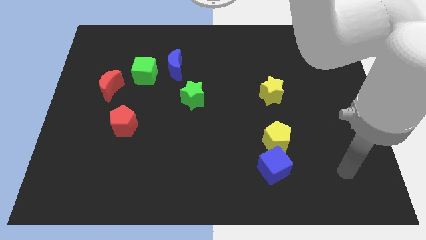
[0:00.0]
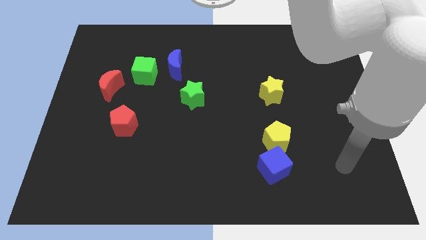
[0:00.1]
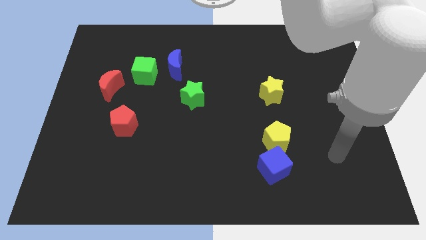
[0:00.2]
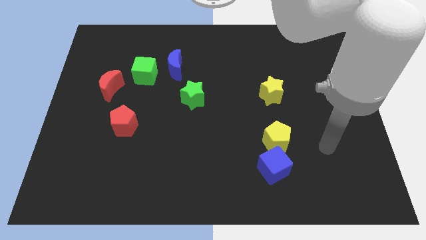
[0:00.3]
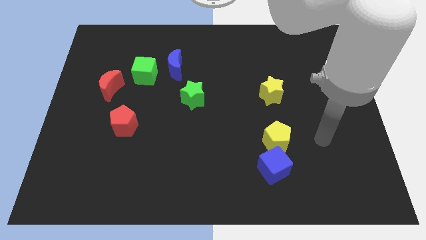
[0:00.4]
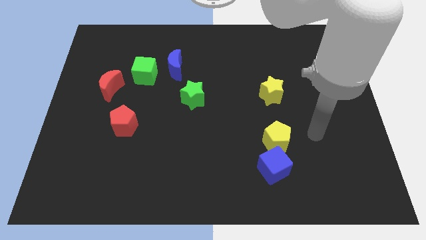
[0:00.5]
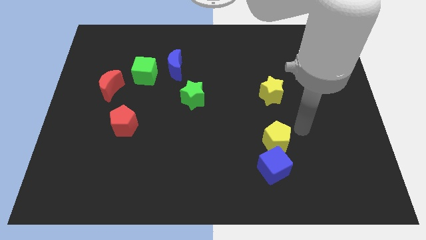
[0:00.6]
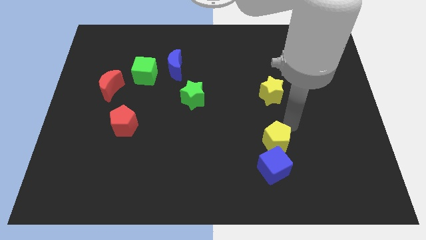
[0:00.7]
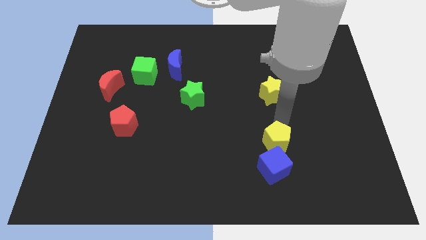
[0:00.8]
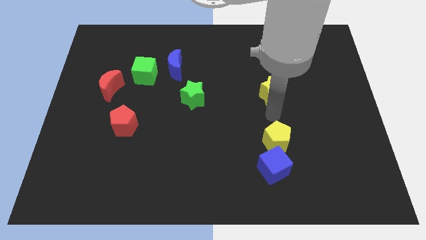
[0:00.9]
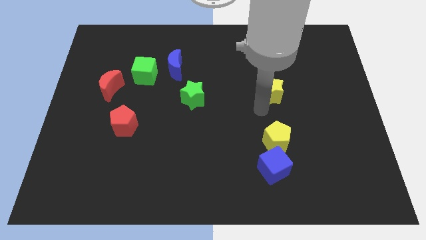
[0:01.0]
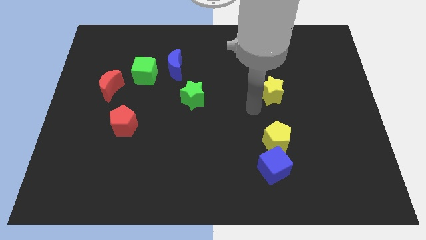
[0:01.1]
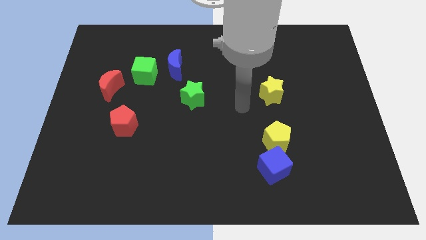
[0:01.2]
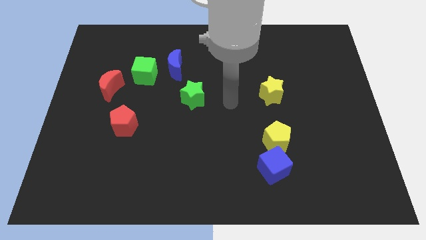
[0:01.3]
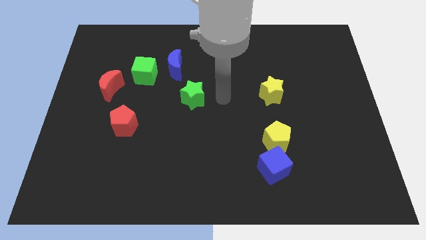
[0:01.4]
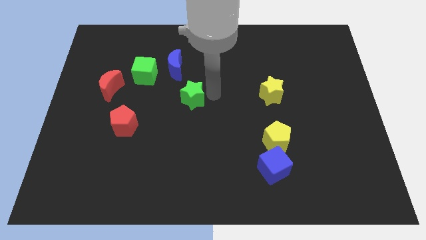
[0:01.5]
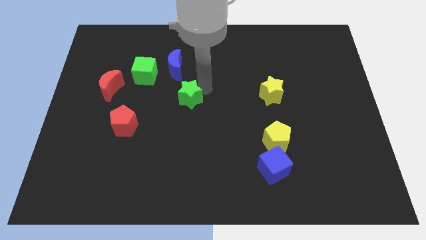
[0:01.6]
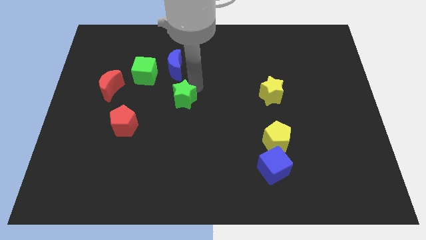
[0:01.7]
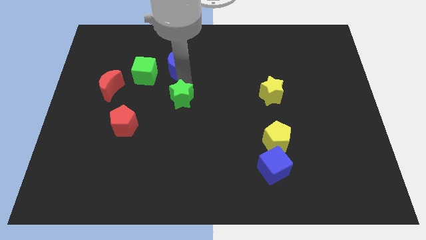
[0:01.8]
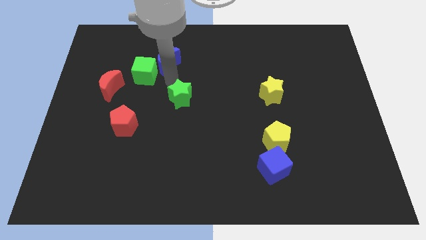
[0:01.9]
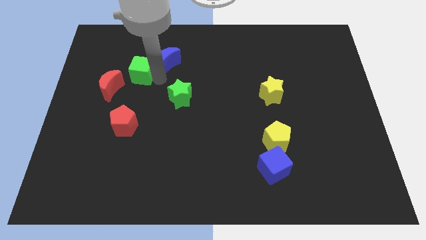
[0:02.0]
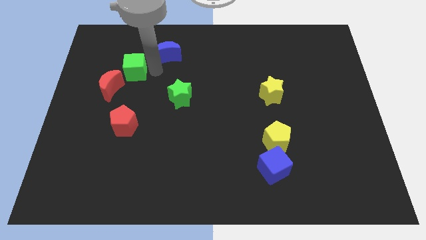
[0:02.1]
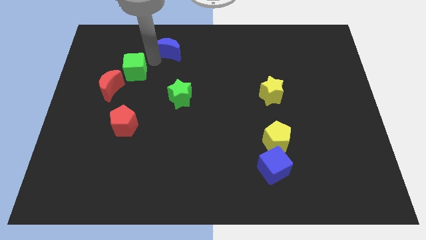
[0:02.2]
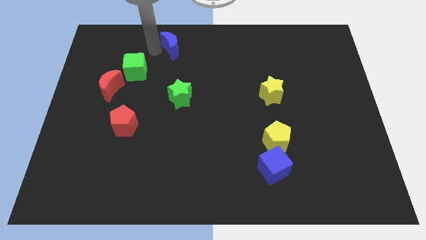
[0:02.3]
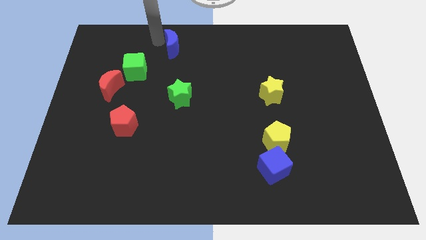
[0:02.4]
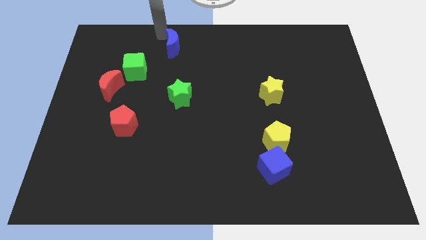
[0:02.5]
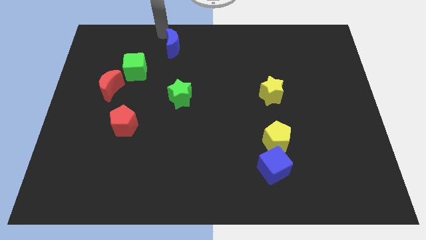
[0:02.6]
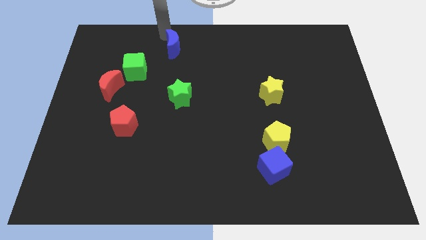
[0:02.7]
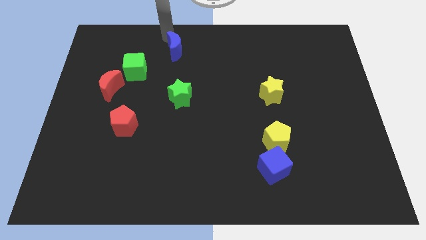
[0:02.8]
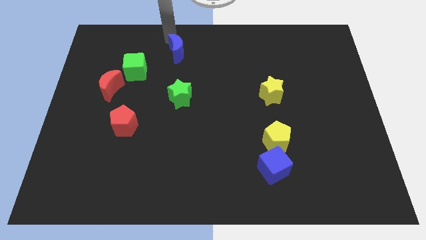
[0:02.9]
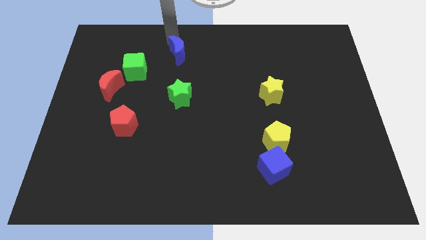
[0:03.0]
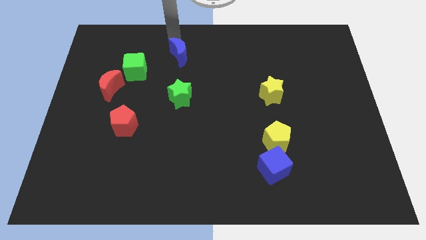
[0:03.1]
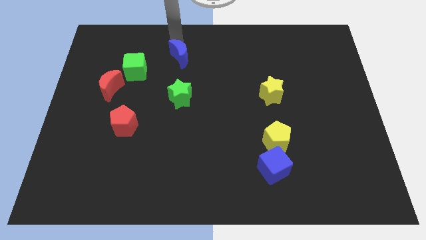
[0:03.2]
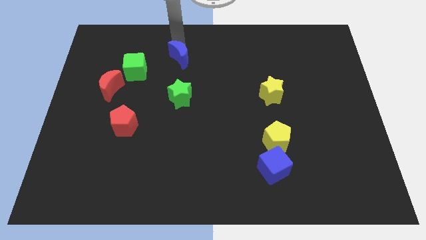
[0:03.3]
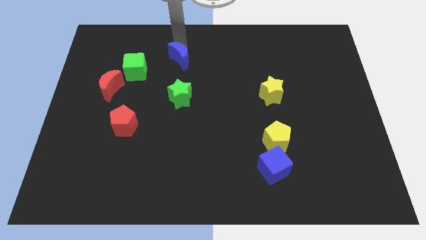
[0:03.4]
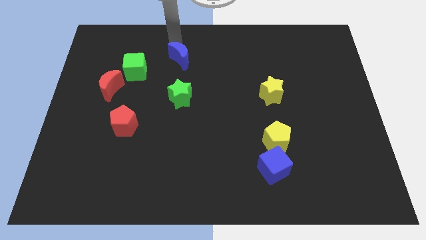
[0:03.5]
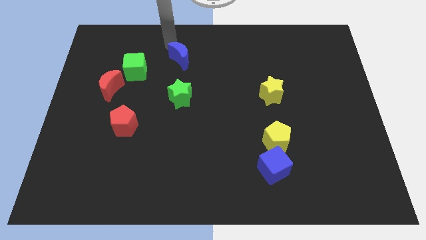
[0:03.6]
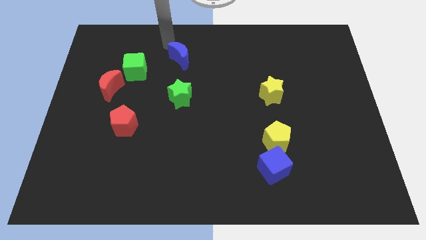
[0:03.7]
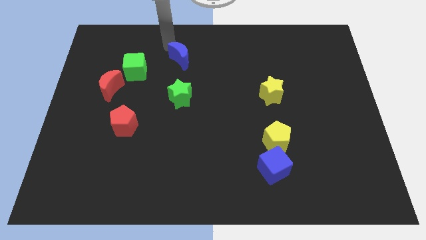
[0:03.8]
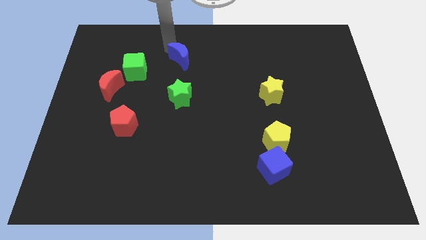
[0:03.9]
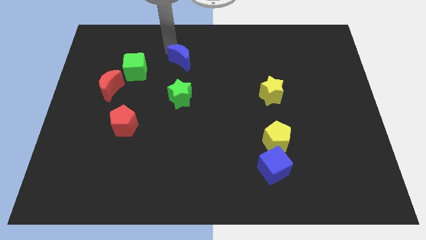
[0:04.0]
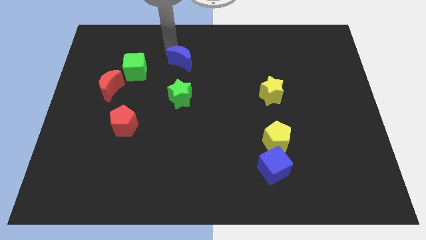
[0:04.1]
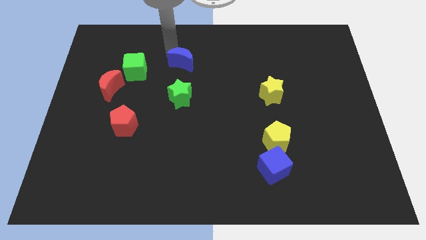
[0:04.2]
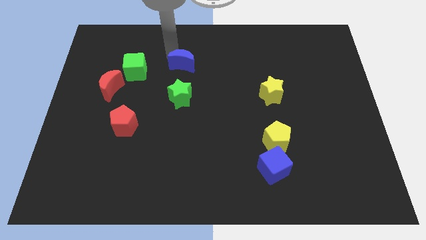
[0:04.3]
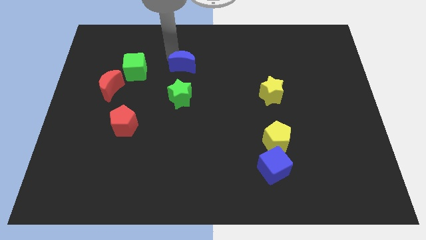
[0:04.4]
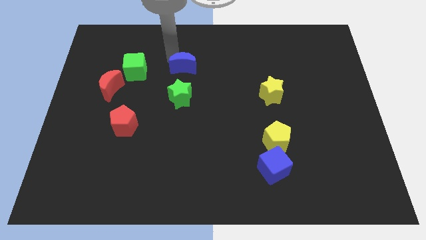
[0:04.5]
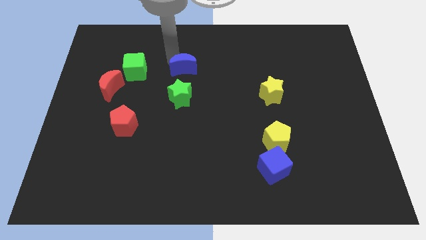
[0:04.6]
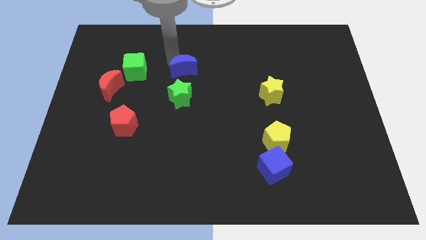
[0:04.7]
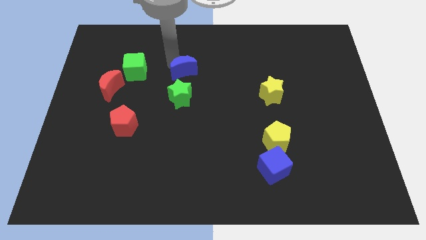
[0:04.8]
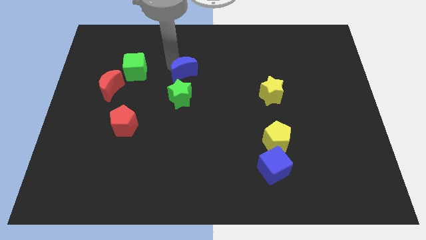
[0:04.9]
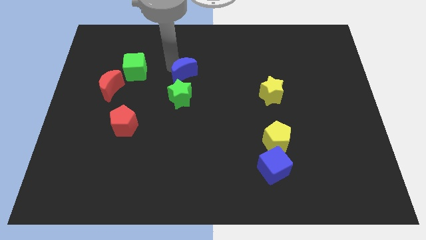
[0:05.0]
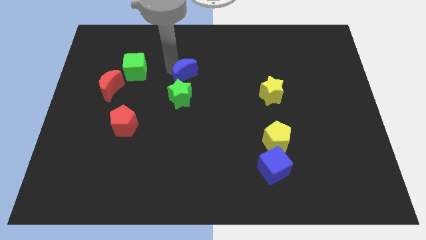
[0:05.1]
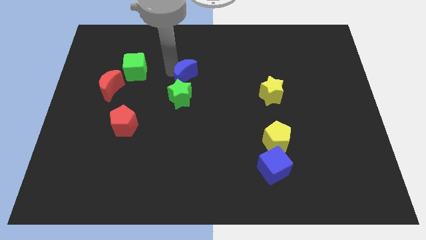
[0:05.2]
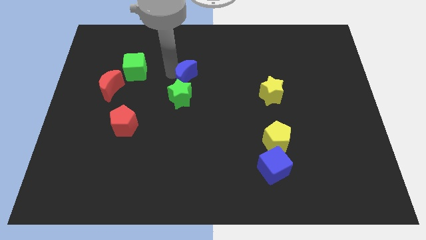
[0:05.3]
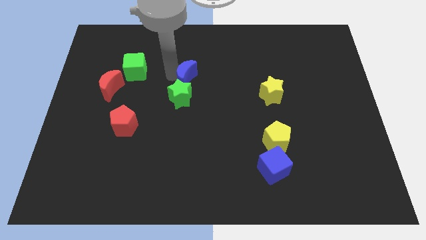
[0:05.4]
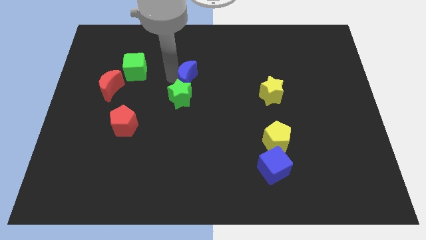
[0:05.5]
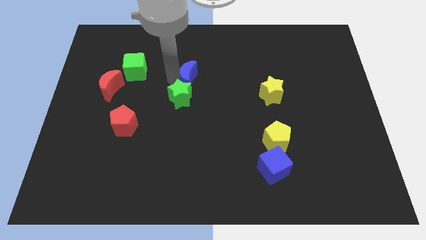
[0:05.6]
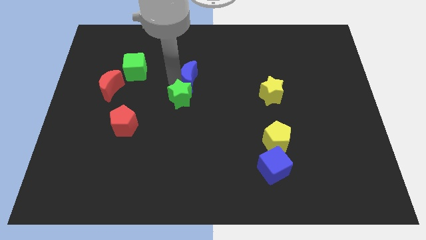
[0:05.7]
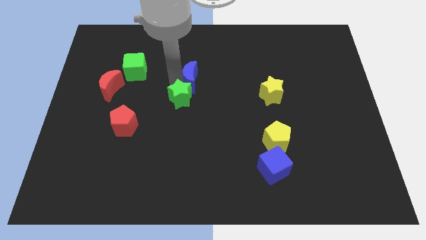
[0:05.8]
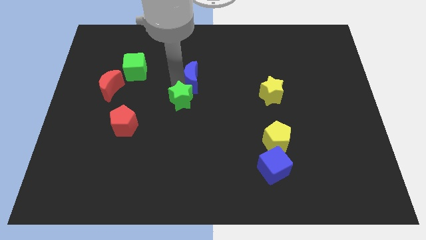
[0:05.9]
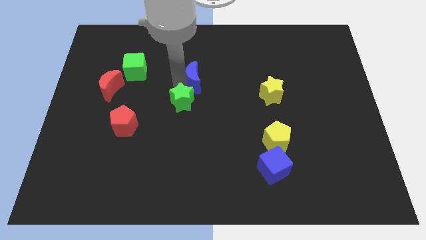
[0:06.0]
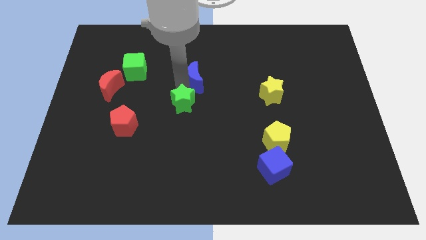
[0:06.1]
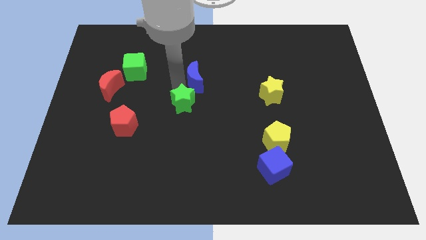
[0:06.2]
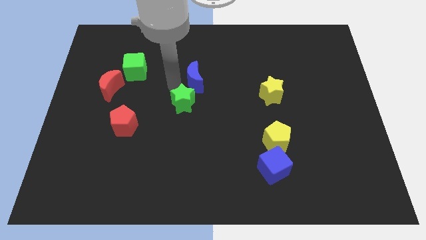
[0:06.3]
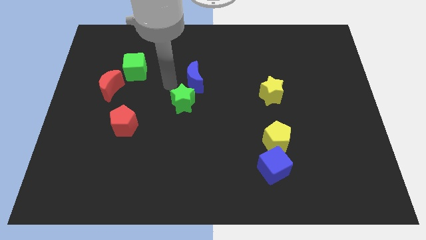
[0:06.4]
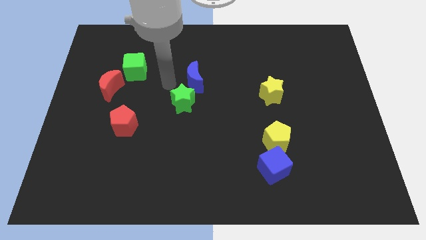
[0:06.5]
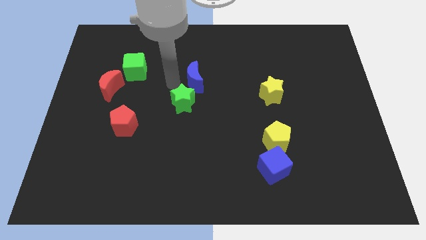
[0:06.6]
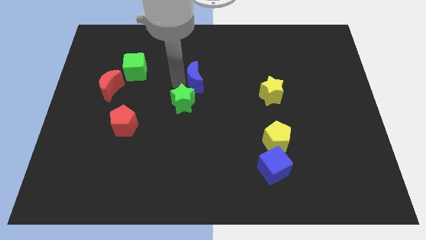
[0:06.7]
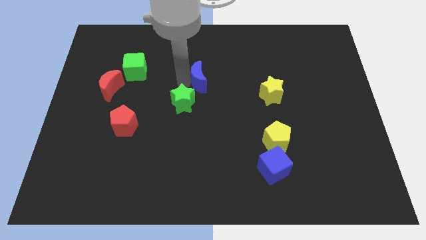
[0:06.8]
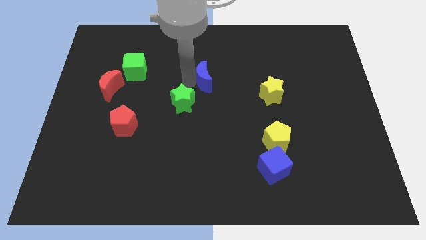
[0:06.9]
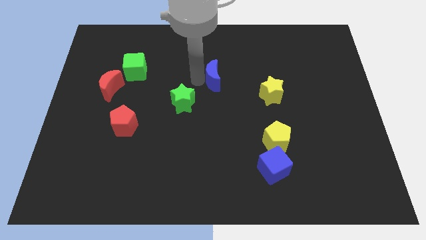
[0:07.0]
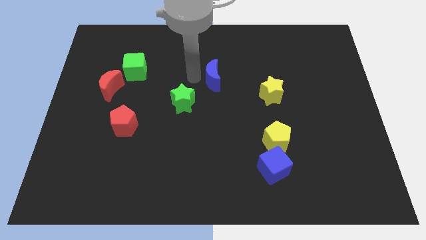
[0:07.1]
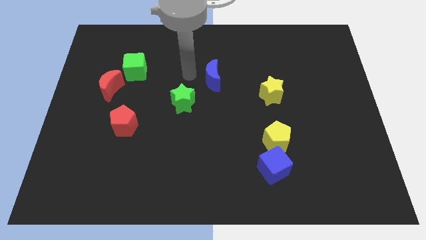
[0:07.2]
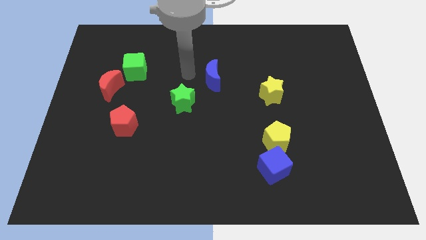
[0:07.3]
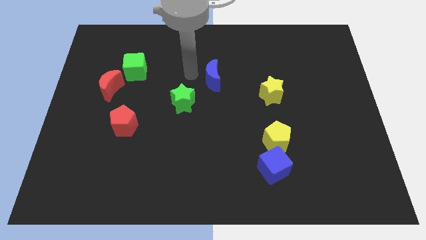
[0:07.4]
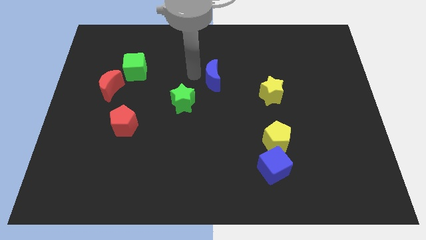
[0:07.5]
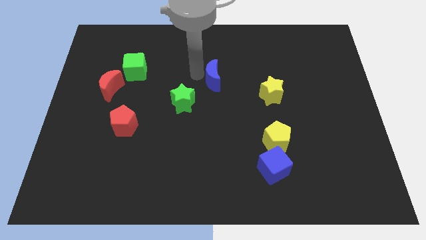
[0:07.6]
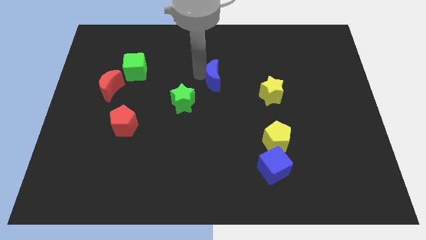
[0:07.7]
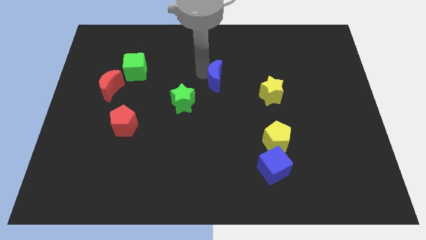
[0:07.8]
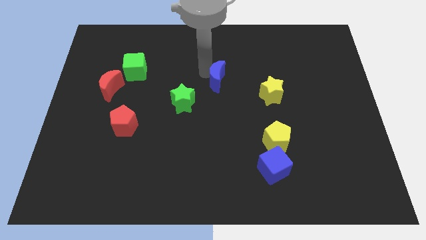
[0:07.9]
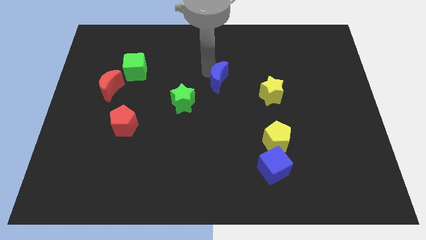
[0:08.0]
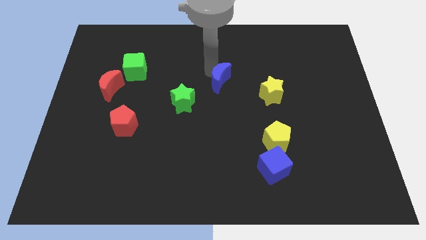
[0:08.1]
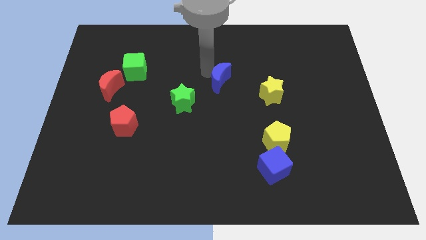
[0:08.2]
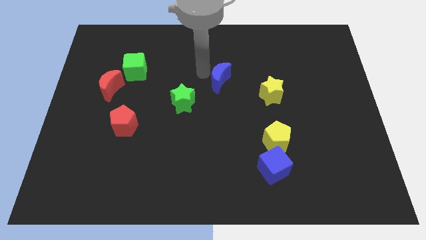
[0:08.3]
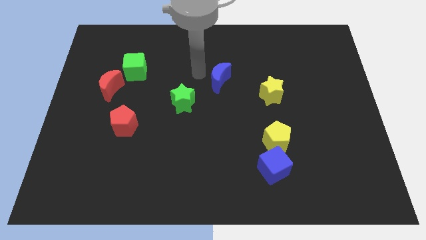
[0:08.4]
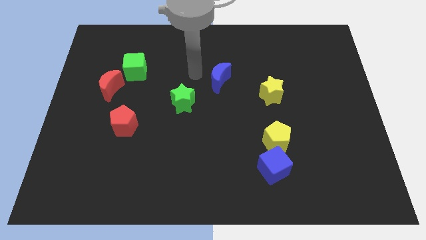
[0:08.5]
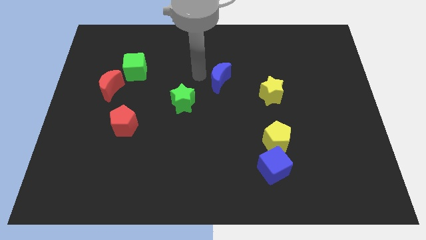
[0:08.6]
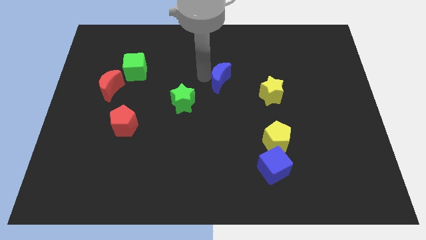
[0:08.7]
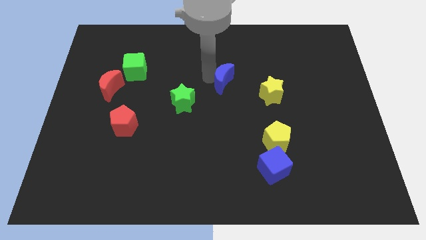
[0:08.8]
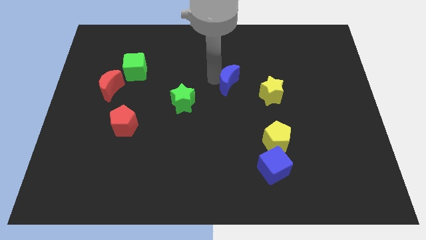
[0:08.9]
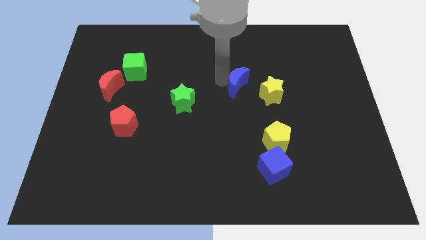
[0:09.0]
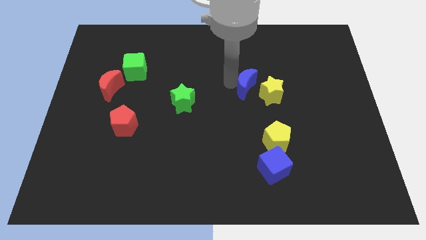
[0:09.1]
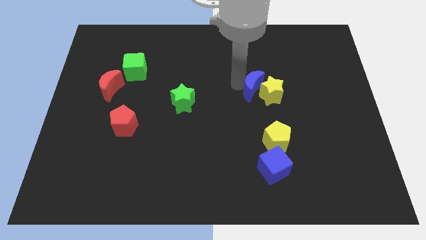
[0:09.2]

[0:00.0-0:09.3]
push the blue moon towards the yellow star
